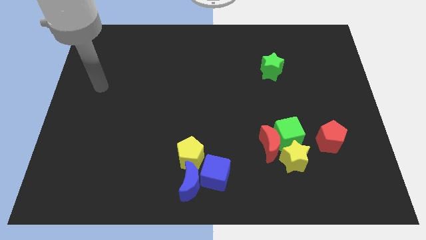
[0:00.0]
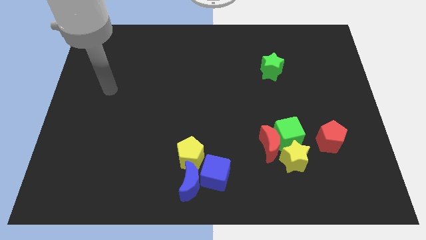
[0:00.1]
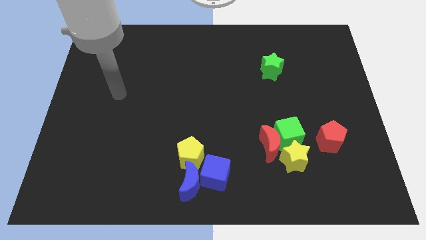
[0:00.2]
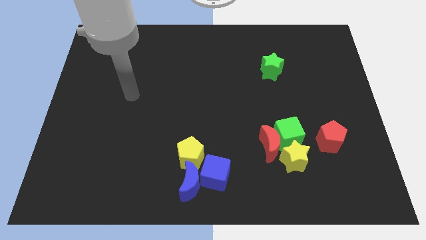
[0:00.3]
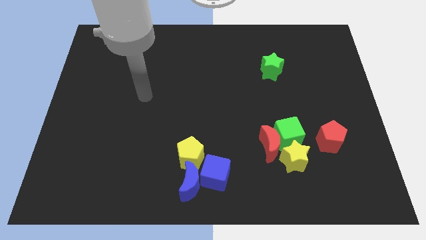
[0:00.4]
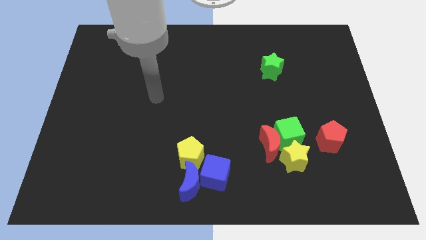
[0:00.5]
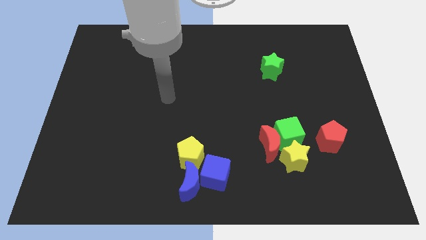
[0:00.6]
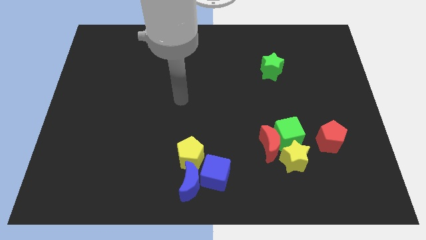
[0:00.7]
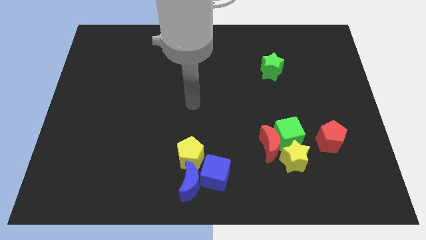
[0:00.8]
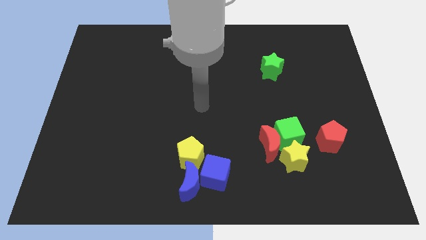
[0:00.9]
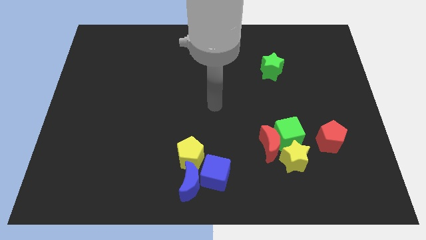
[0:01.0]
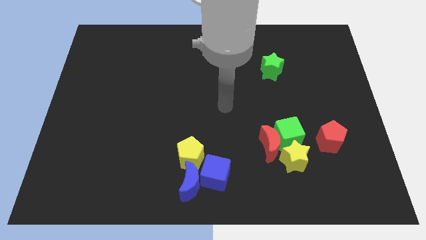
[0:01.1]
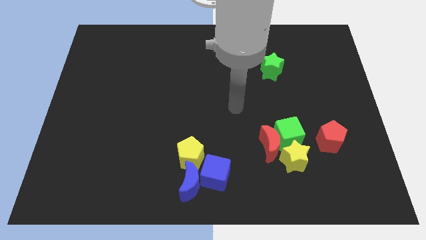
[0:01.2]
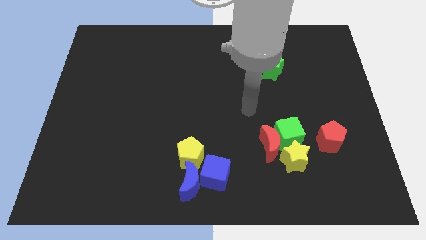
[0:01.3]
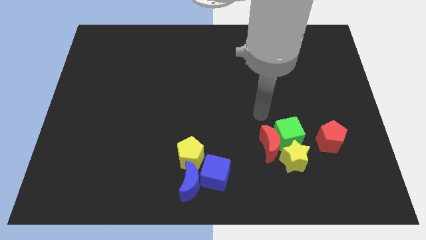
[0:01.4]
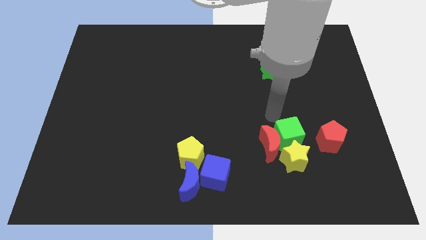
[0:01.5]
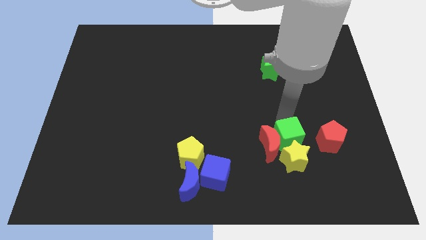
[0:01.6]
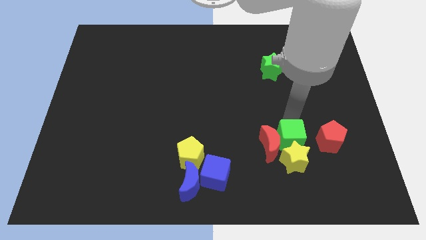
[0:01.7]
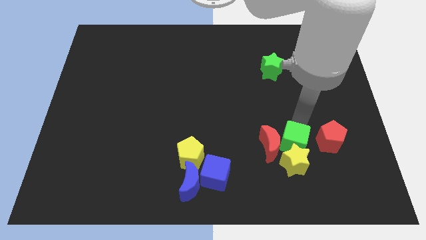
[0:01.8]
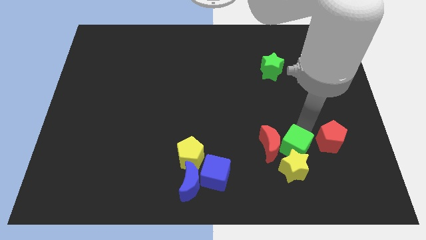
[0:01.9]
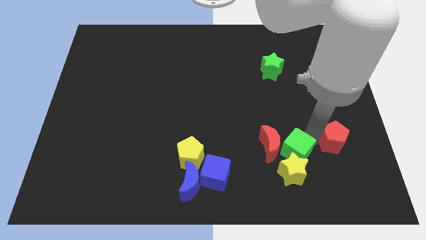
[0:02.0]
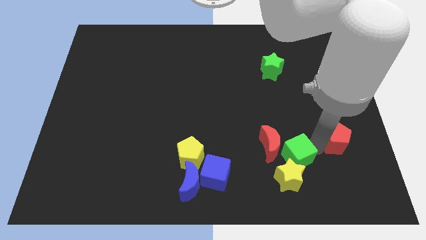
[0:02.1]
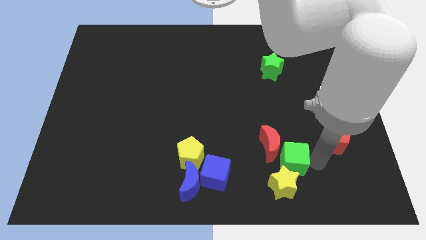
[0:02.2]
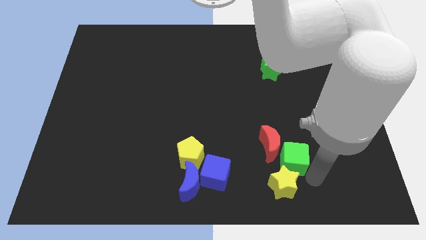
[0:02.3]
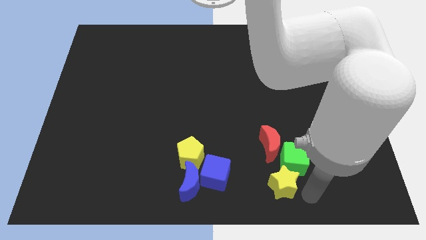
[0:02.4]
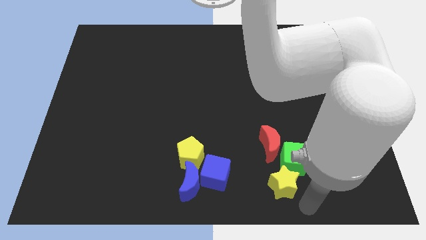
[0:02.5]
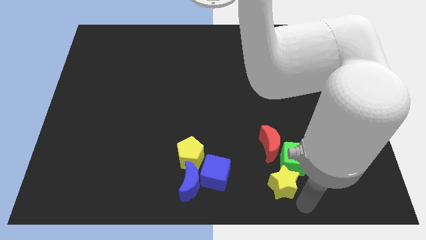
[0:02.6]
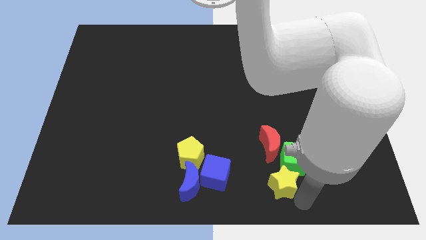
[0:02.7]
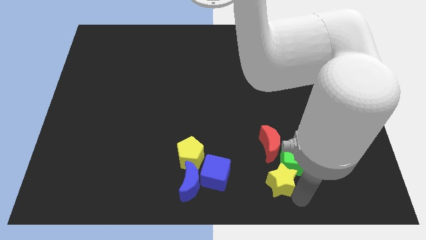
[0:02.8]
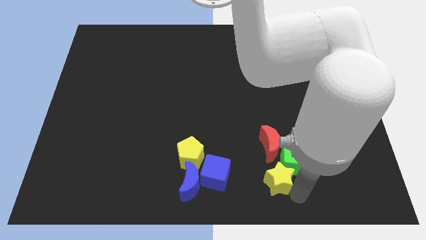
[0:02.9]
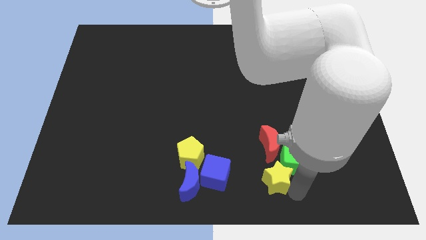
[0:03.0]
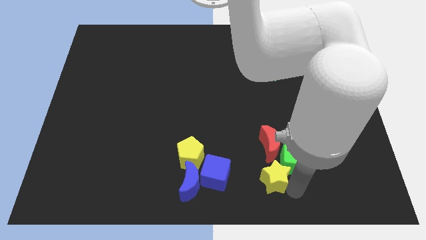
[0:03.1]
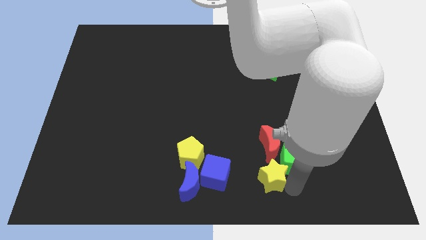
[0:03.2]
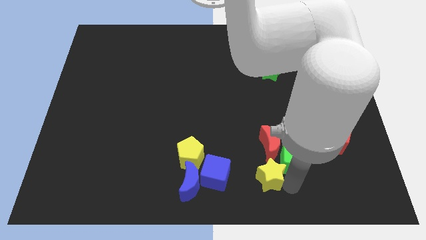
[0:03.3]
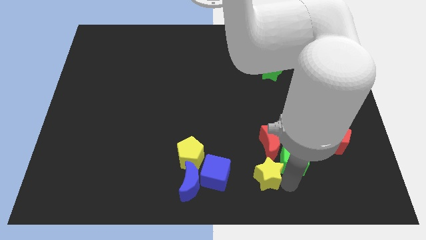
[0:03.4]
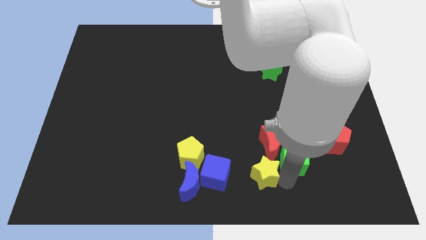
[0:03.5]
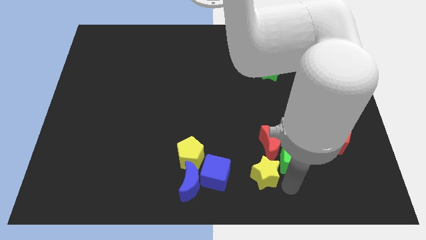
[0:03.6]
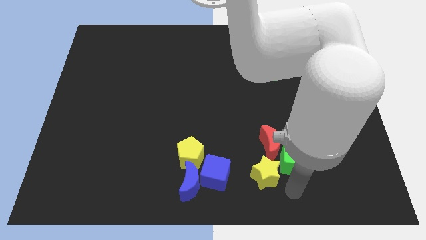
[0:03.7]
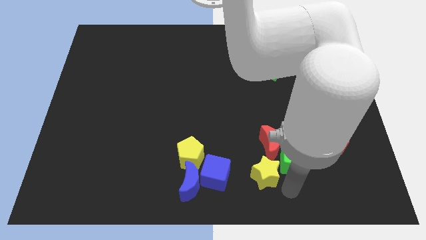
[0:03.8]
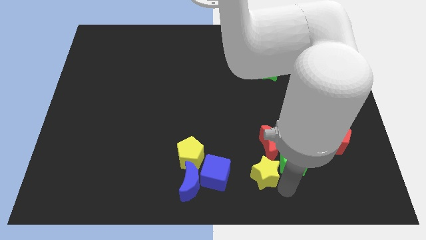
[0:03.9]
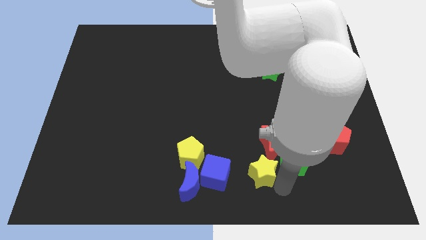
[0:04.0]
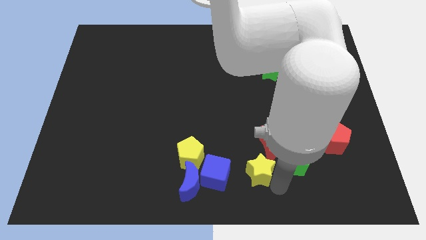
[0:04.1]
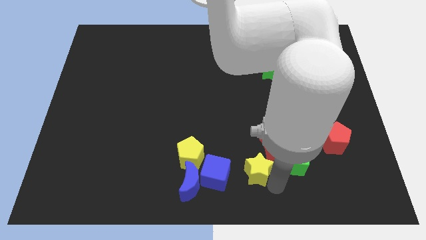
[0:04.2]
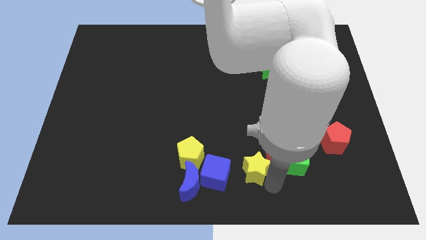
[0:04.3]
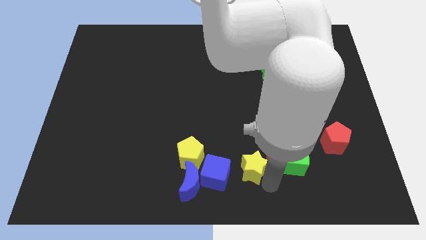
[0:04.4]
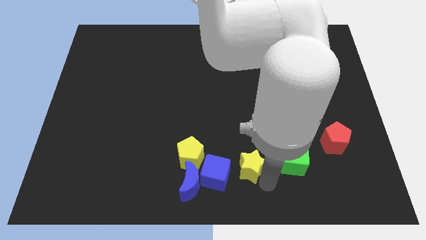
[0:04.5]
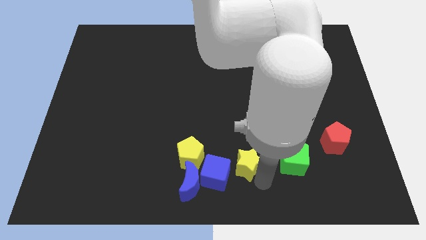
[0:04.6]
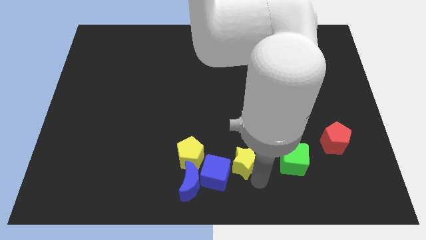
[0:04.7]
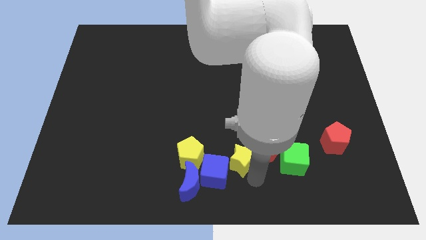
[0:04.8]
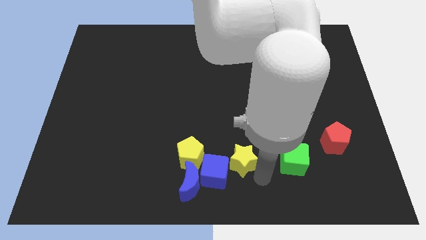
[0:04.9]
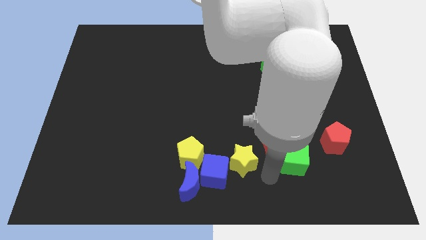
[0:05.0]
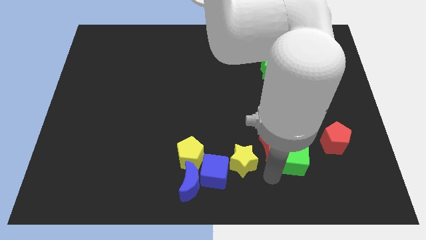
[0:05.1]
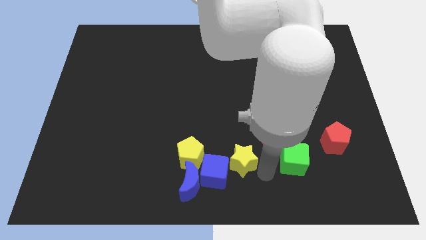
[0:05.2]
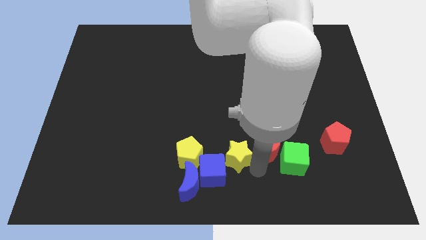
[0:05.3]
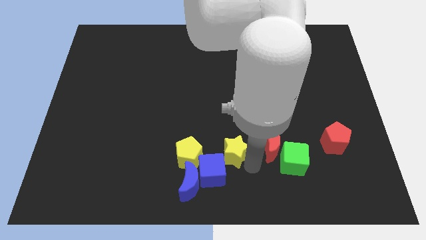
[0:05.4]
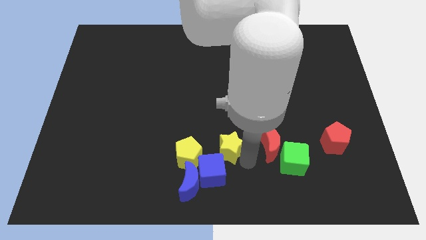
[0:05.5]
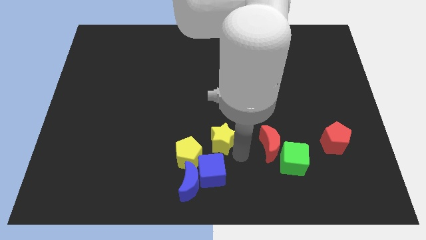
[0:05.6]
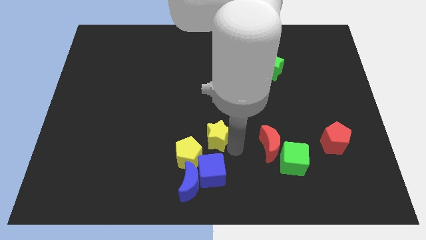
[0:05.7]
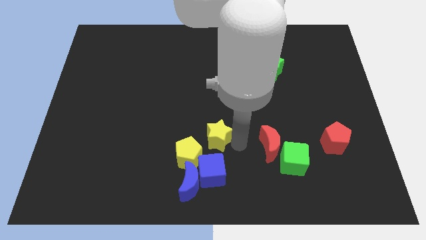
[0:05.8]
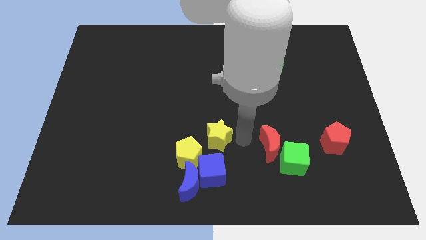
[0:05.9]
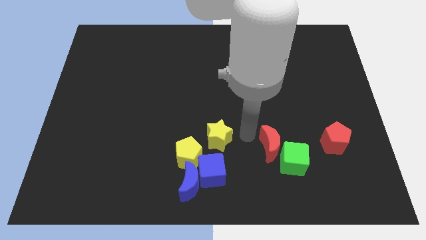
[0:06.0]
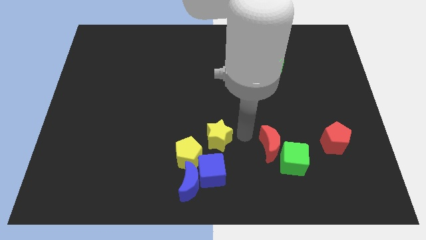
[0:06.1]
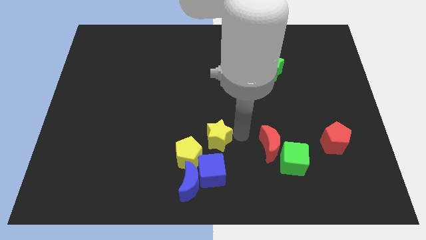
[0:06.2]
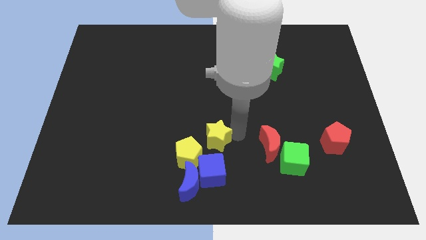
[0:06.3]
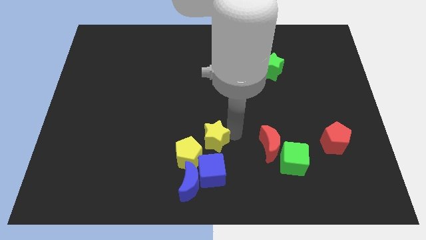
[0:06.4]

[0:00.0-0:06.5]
push the yellow star to the top side of the blue moon

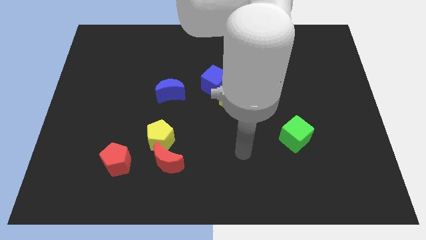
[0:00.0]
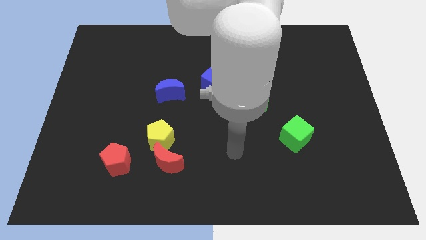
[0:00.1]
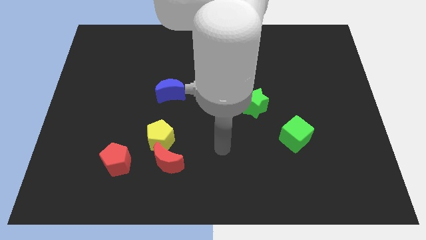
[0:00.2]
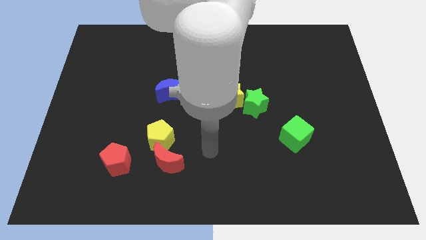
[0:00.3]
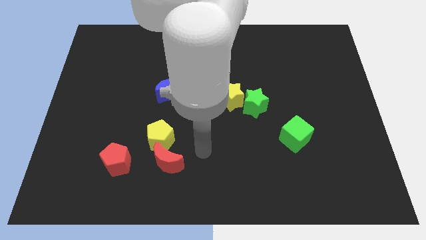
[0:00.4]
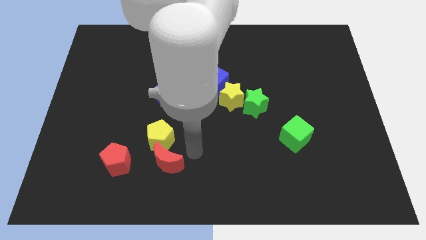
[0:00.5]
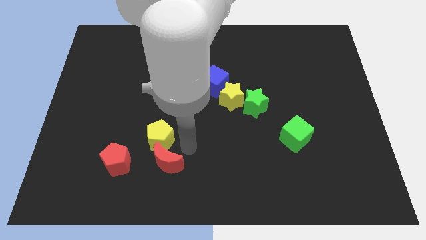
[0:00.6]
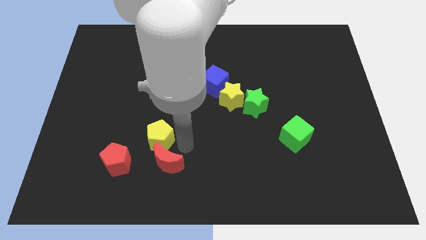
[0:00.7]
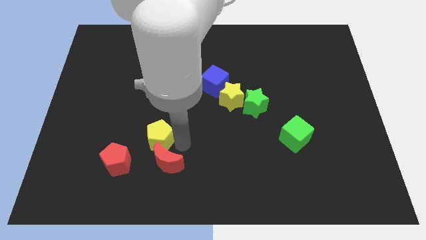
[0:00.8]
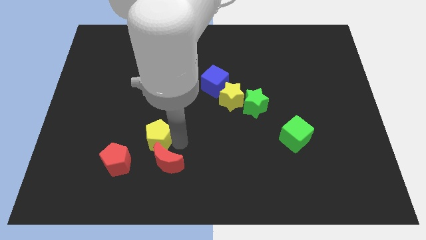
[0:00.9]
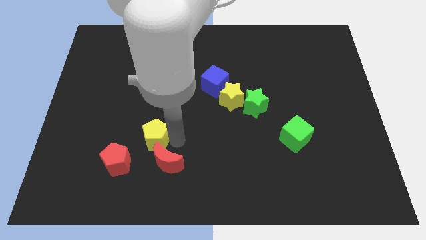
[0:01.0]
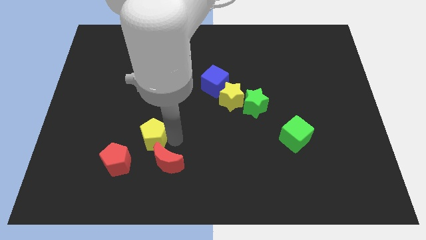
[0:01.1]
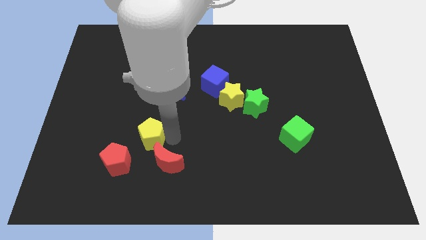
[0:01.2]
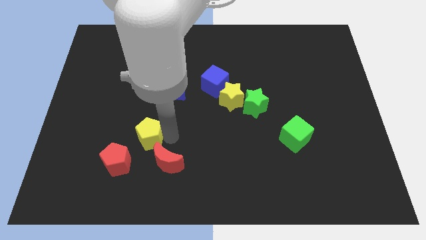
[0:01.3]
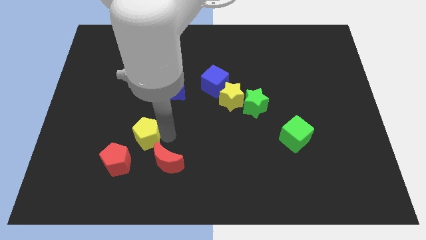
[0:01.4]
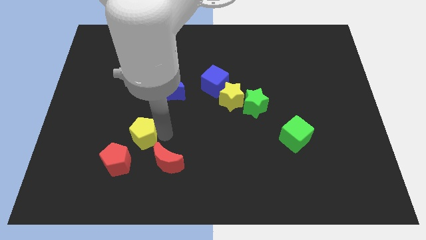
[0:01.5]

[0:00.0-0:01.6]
slide the yellow pentagon above the red pentagon
